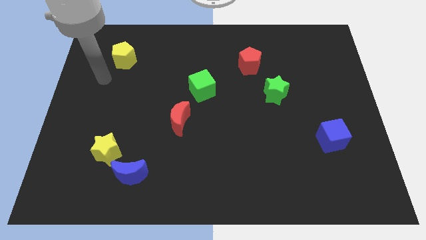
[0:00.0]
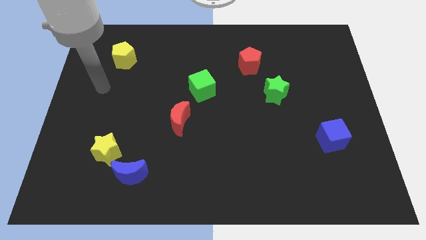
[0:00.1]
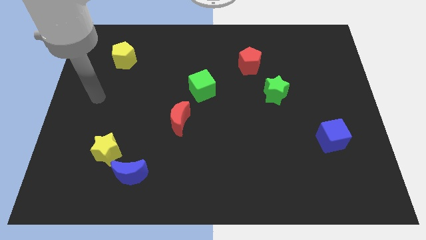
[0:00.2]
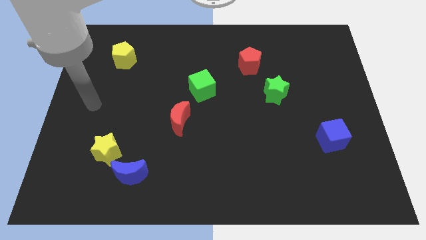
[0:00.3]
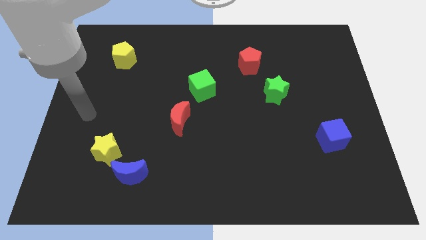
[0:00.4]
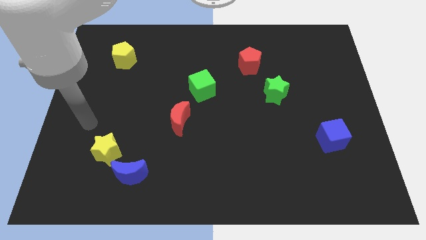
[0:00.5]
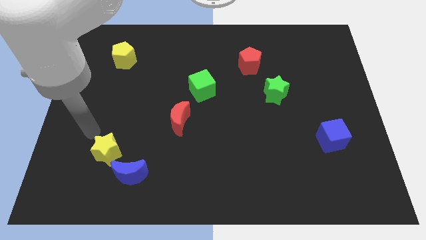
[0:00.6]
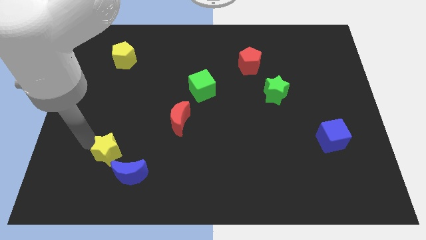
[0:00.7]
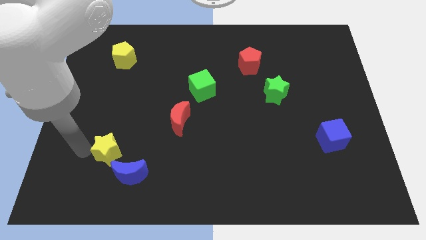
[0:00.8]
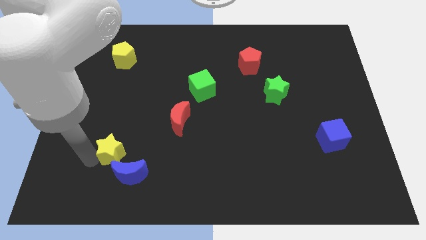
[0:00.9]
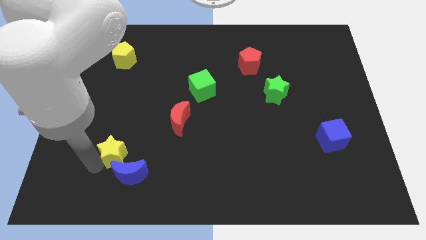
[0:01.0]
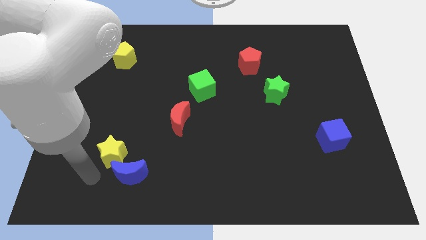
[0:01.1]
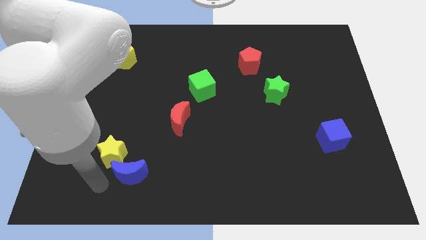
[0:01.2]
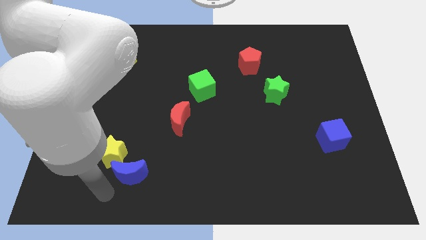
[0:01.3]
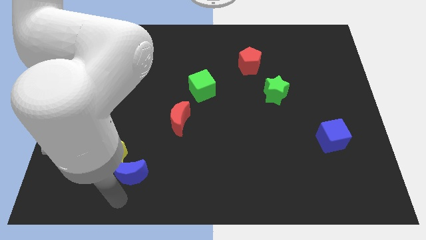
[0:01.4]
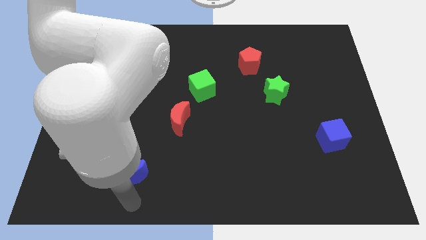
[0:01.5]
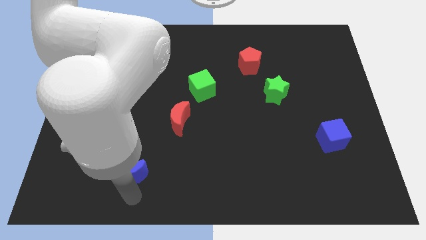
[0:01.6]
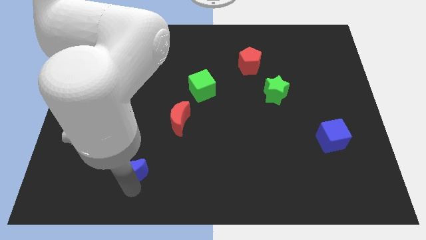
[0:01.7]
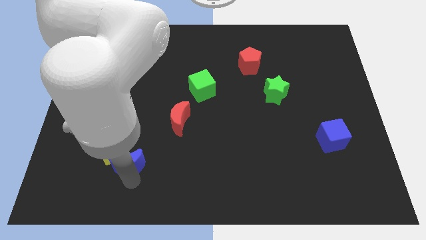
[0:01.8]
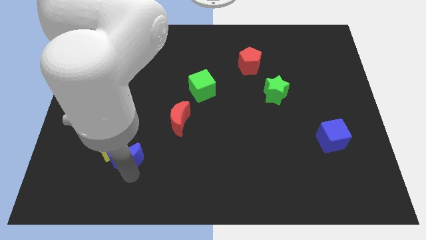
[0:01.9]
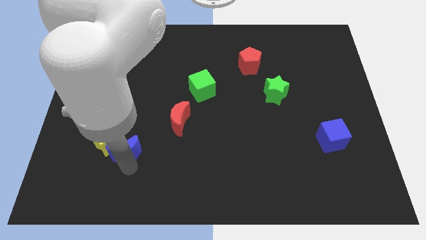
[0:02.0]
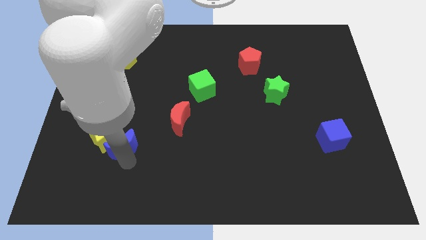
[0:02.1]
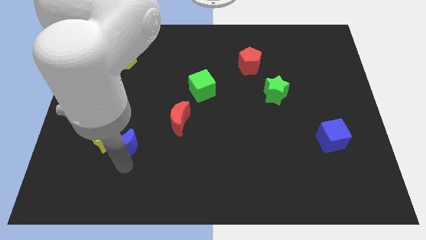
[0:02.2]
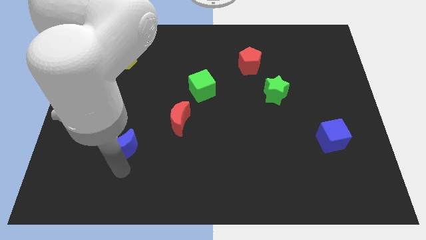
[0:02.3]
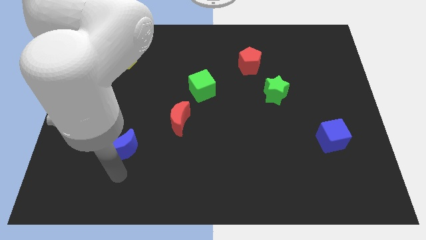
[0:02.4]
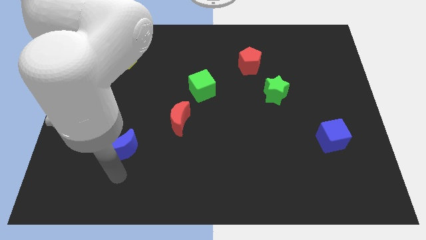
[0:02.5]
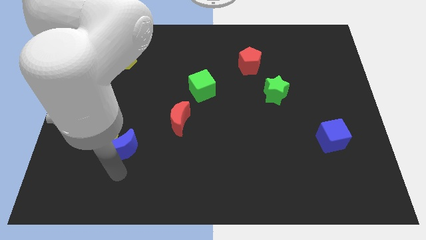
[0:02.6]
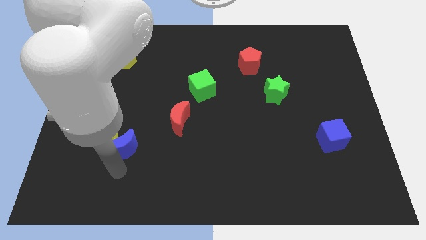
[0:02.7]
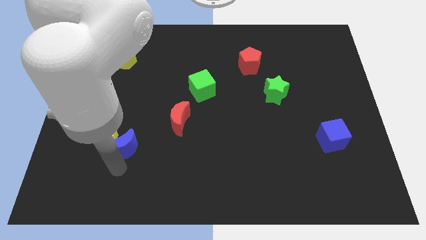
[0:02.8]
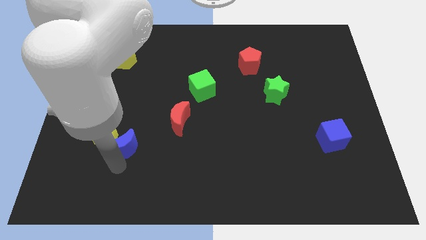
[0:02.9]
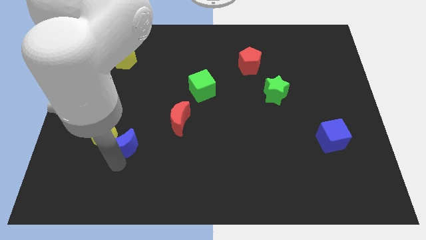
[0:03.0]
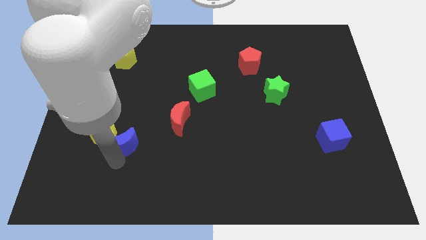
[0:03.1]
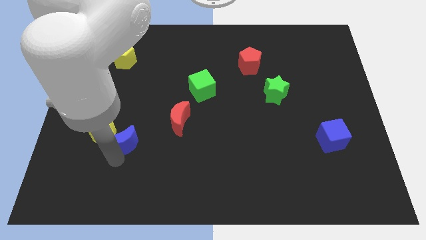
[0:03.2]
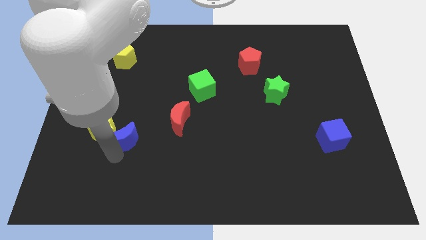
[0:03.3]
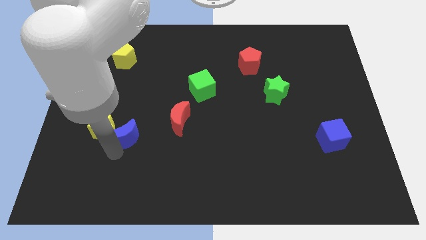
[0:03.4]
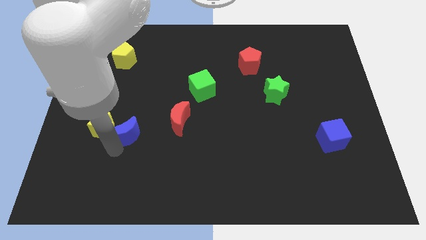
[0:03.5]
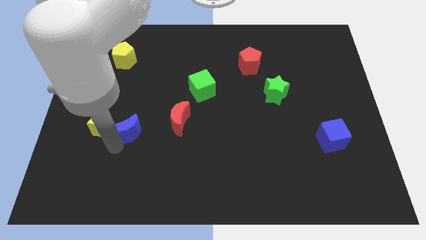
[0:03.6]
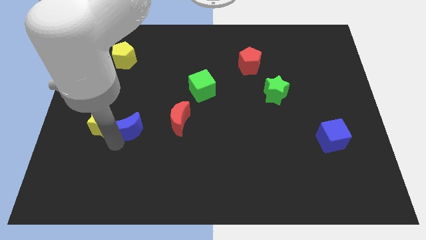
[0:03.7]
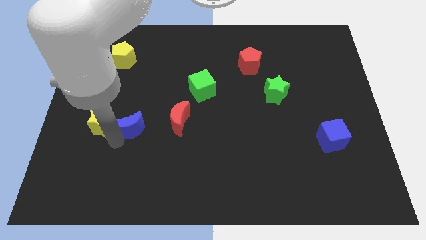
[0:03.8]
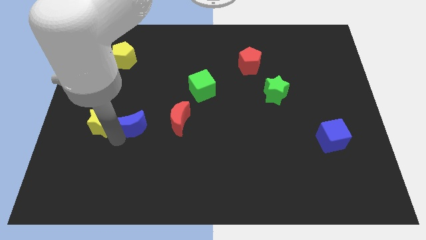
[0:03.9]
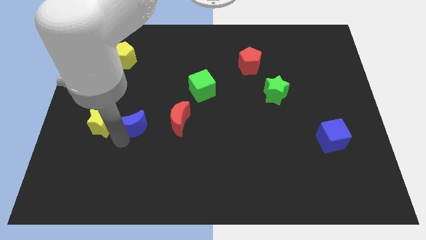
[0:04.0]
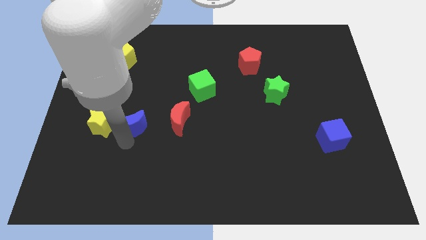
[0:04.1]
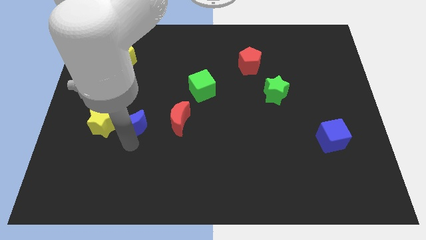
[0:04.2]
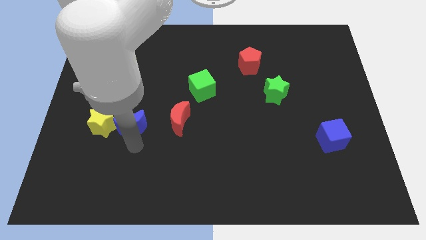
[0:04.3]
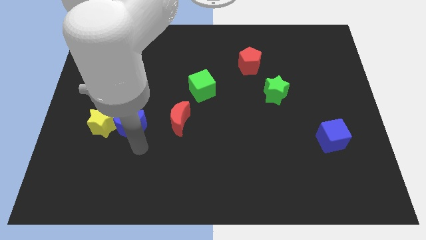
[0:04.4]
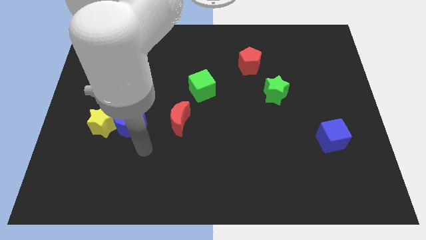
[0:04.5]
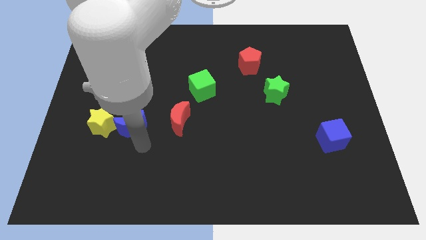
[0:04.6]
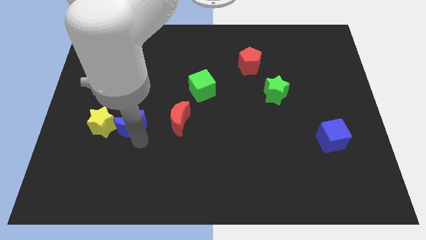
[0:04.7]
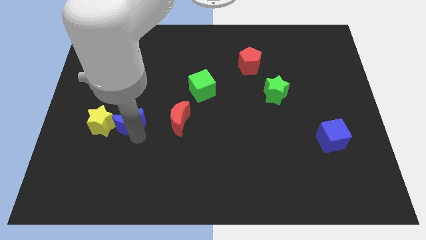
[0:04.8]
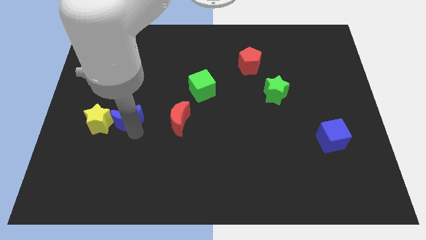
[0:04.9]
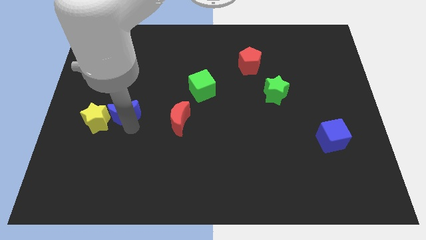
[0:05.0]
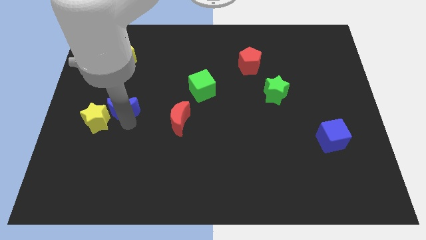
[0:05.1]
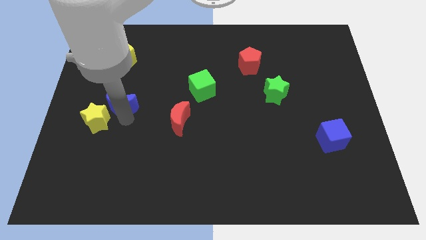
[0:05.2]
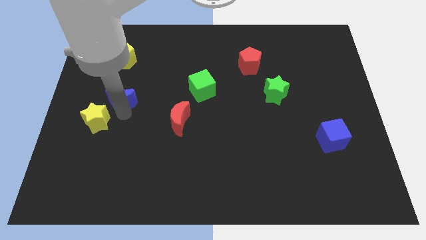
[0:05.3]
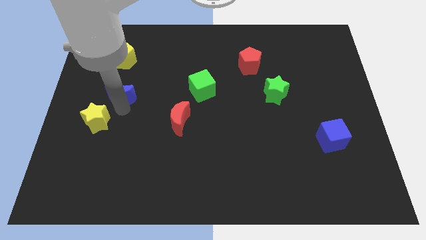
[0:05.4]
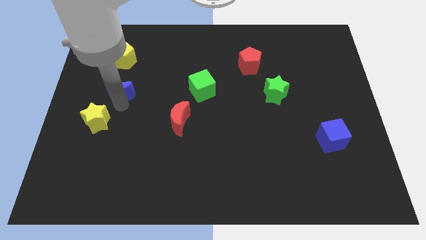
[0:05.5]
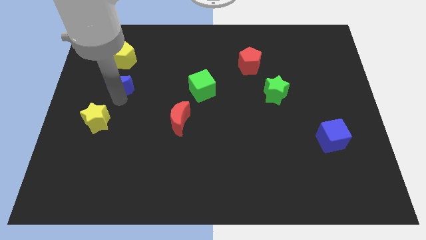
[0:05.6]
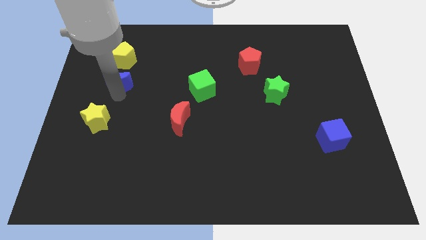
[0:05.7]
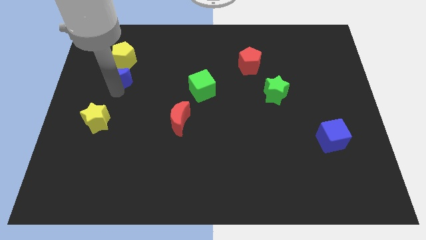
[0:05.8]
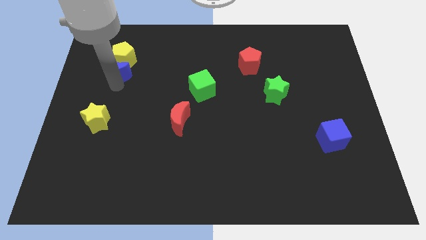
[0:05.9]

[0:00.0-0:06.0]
put the blue moon next to the yellow pentagon

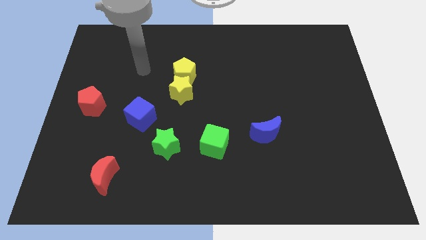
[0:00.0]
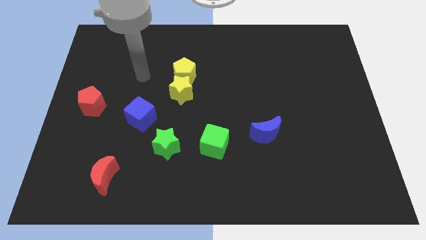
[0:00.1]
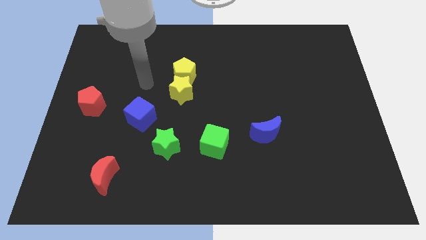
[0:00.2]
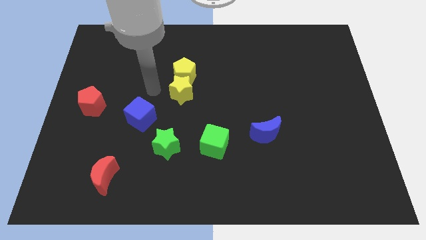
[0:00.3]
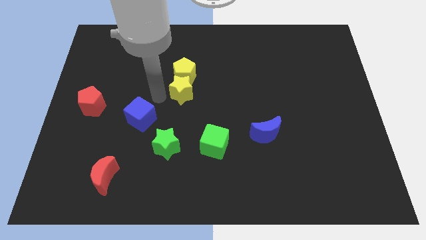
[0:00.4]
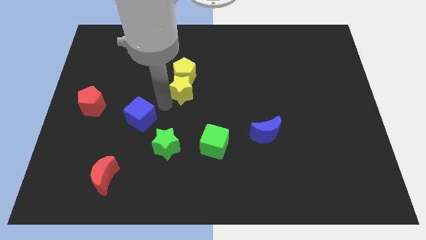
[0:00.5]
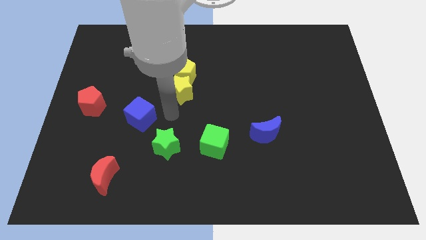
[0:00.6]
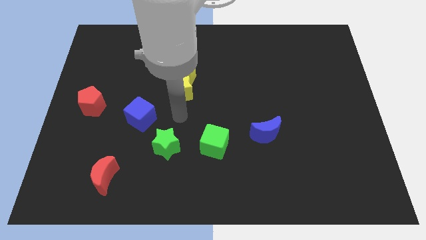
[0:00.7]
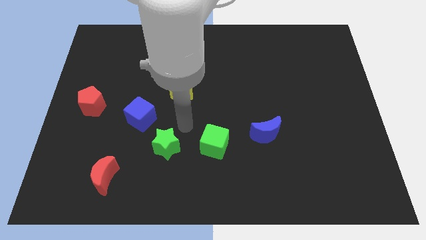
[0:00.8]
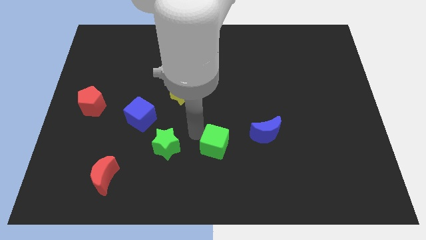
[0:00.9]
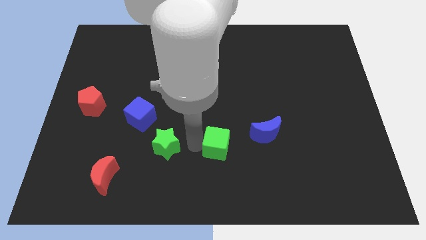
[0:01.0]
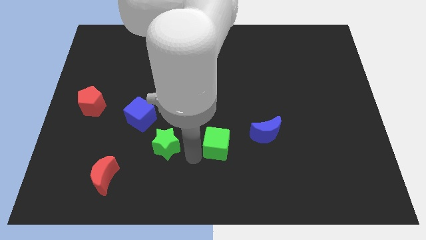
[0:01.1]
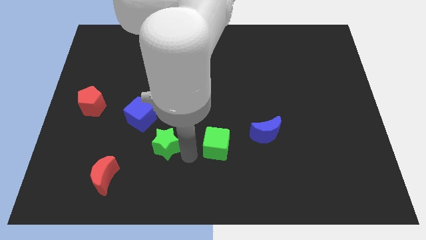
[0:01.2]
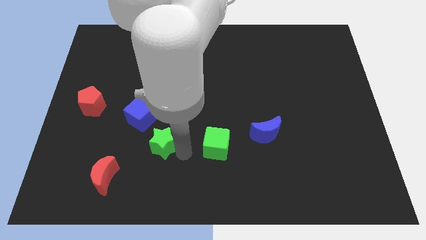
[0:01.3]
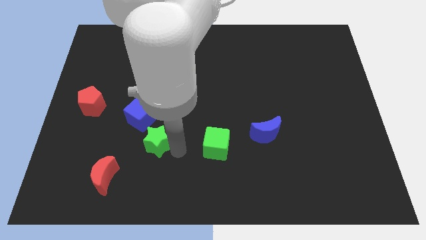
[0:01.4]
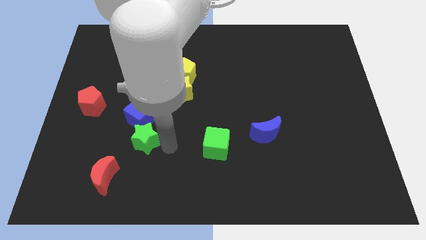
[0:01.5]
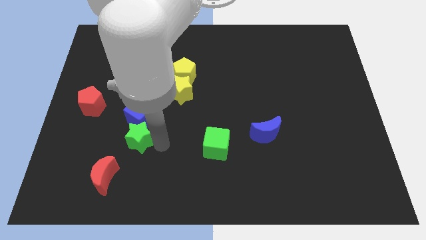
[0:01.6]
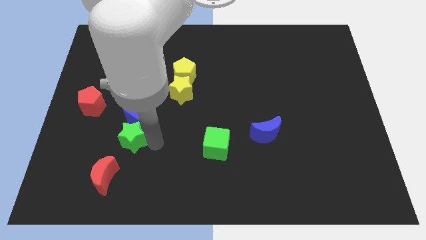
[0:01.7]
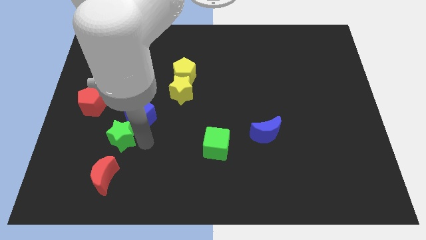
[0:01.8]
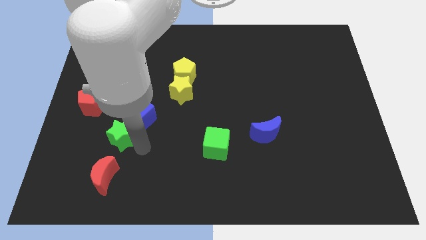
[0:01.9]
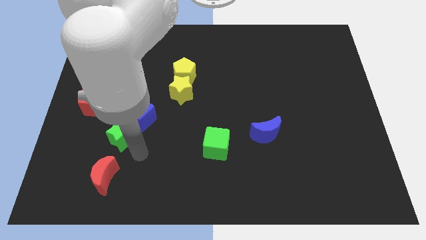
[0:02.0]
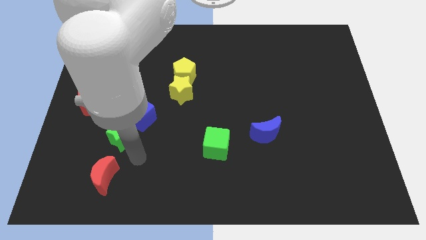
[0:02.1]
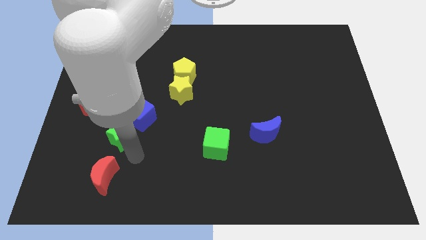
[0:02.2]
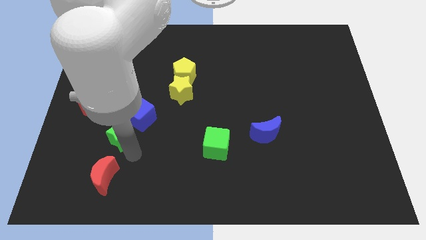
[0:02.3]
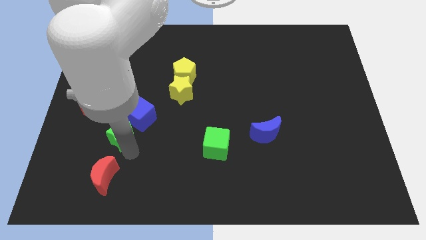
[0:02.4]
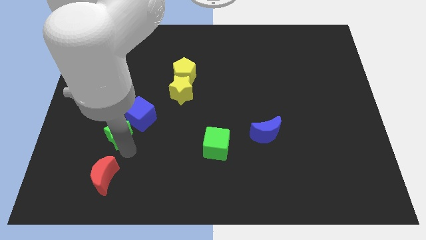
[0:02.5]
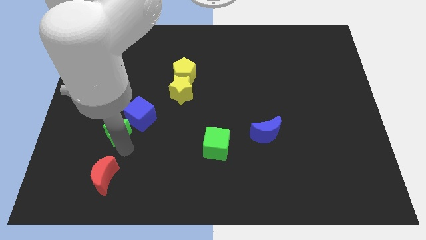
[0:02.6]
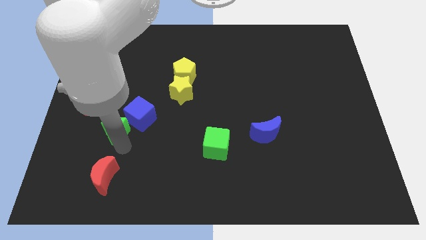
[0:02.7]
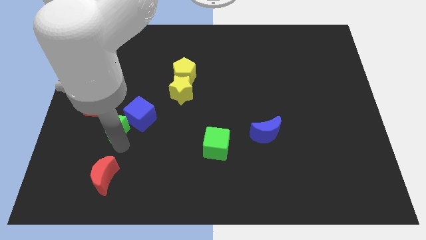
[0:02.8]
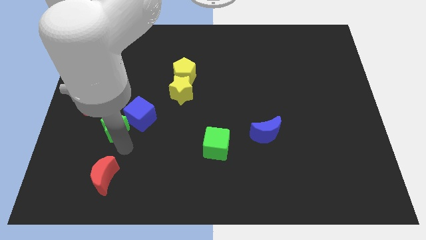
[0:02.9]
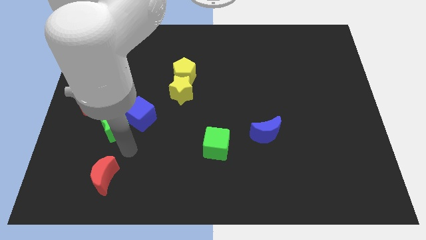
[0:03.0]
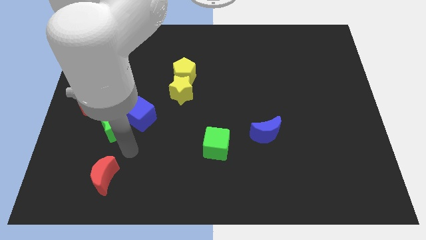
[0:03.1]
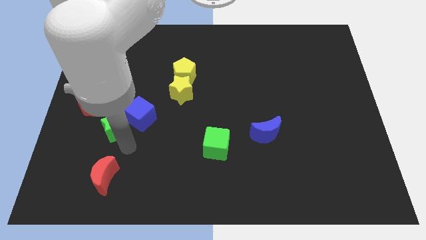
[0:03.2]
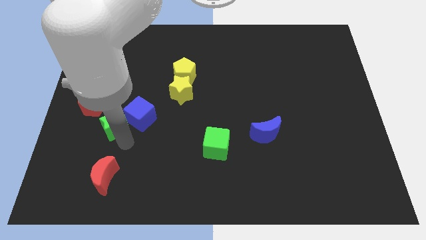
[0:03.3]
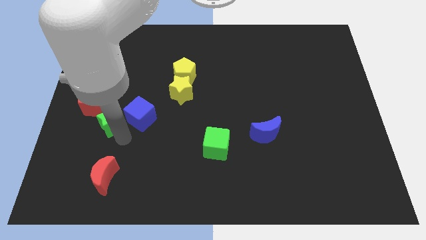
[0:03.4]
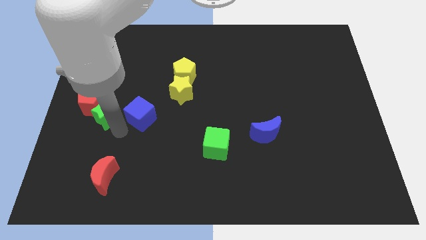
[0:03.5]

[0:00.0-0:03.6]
slide the green star to the red pentagon
